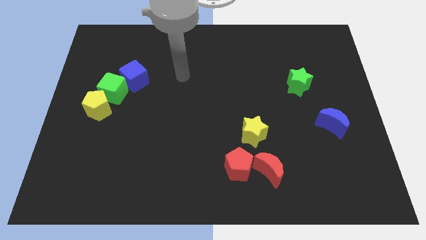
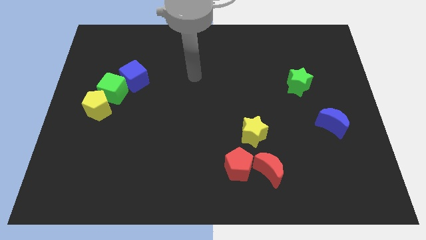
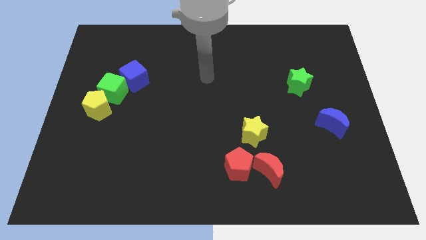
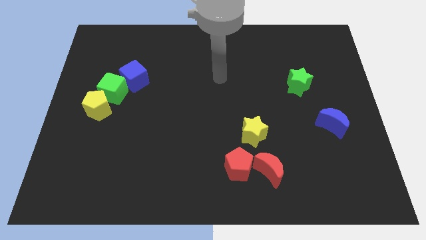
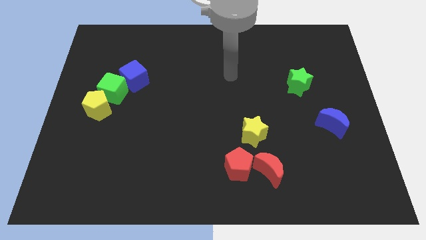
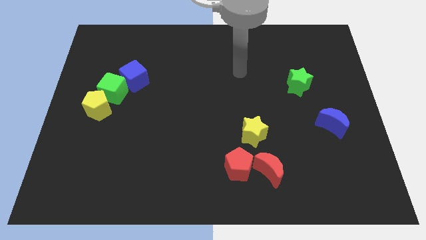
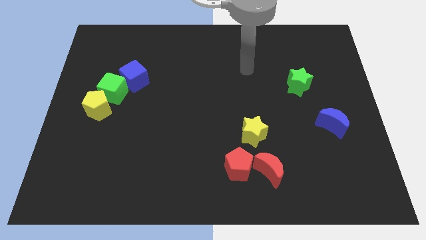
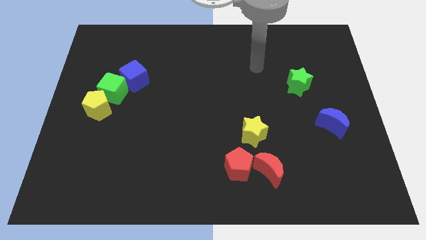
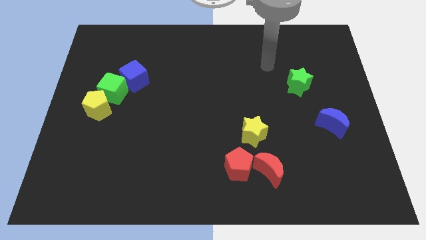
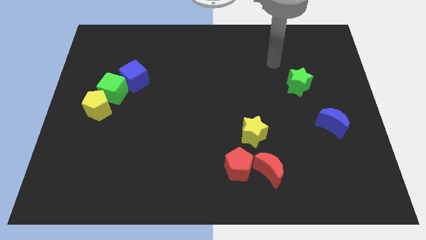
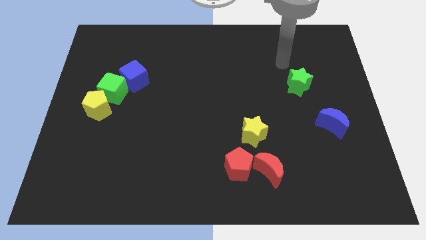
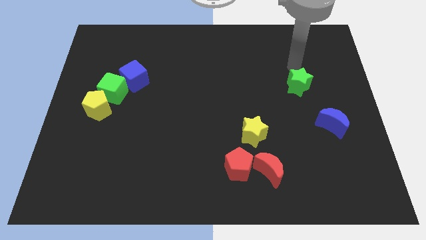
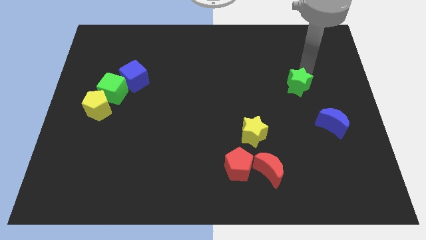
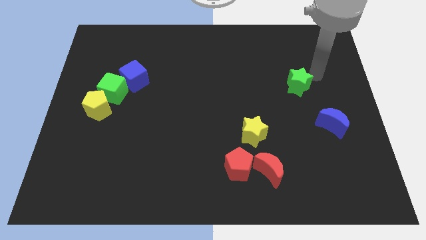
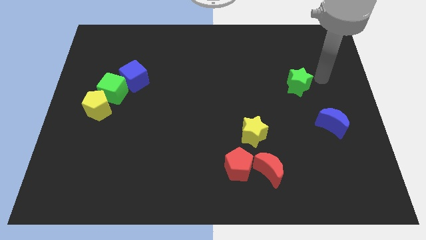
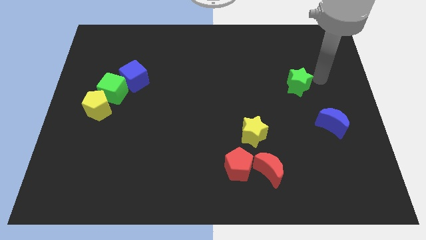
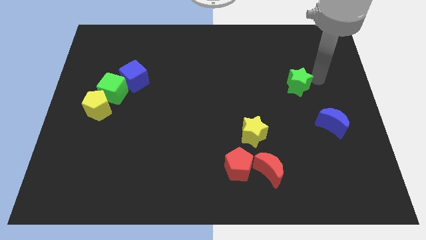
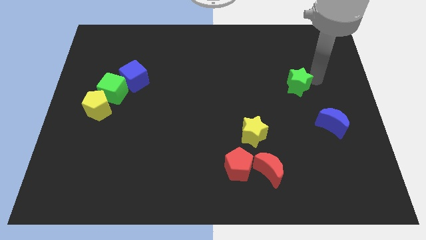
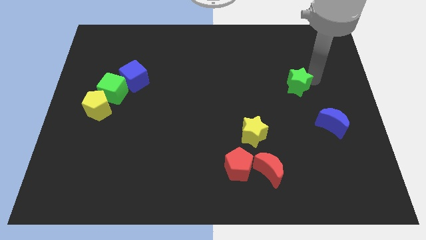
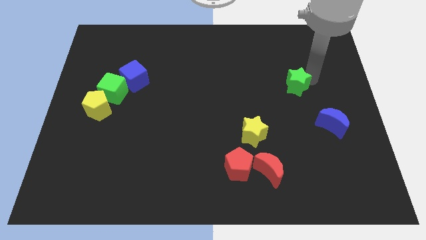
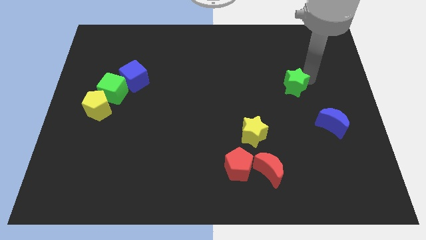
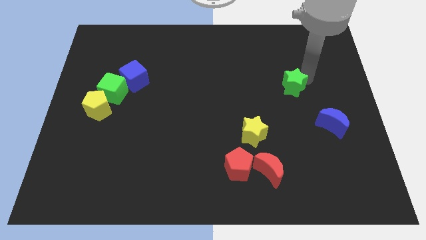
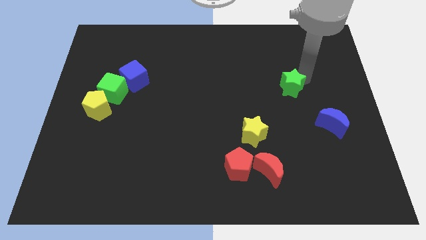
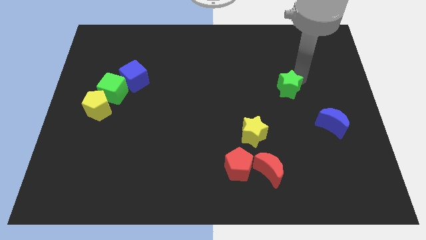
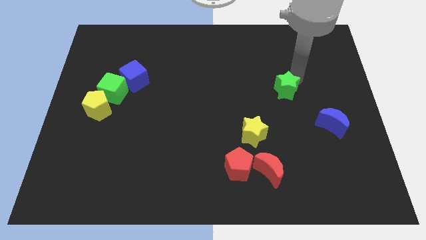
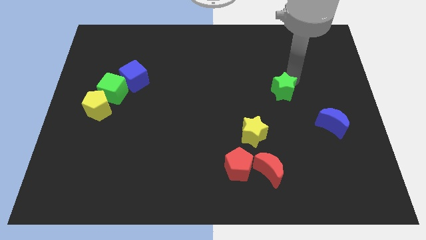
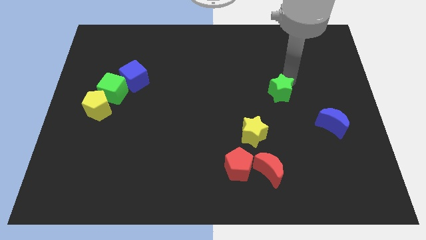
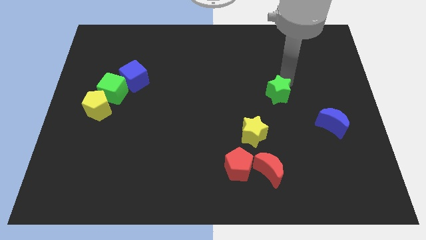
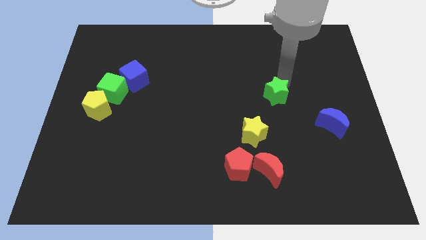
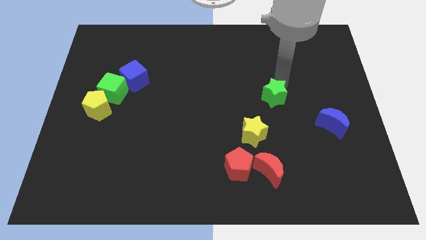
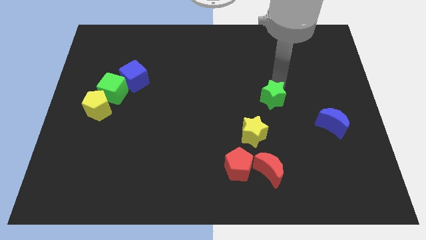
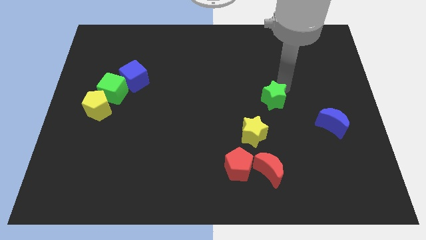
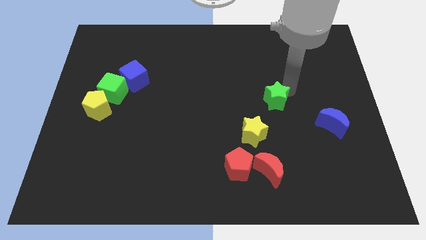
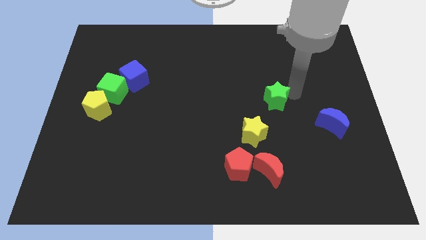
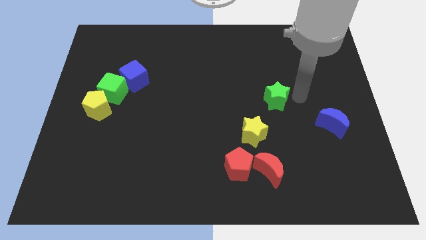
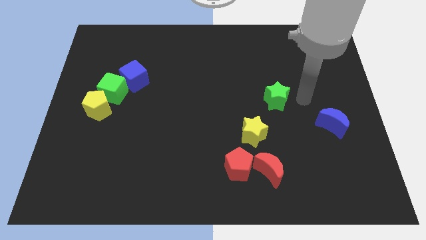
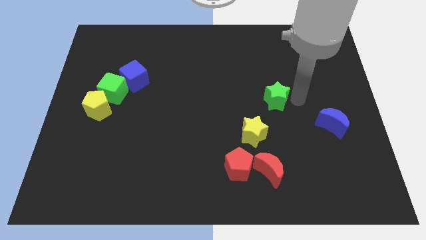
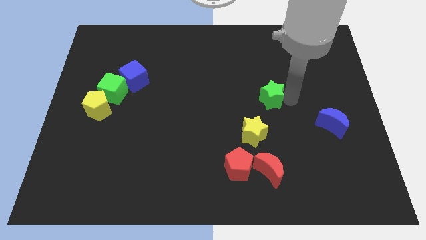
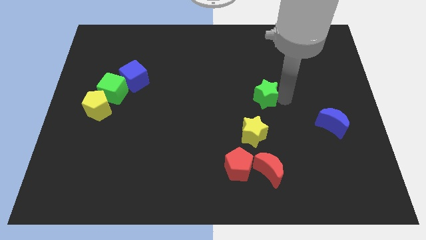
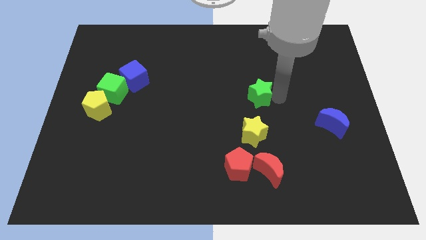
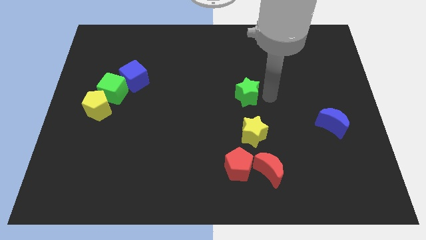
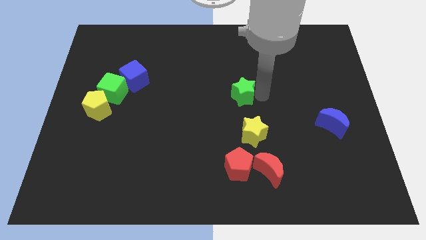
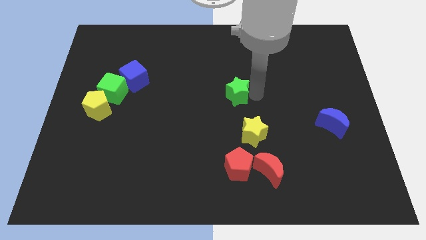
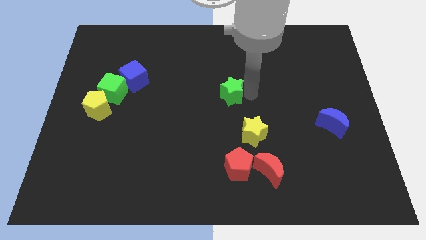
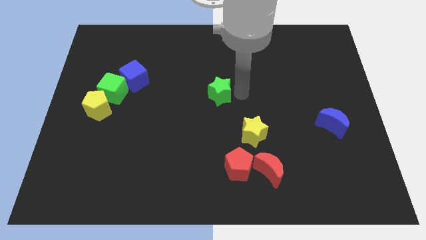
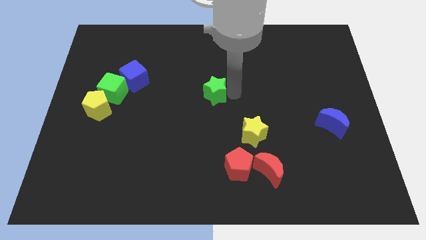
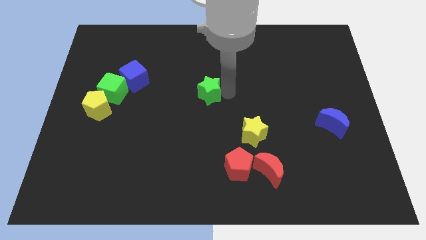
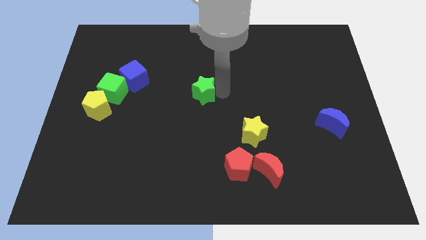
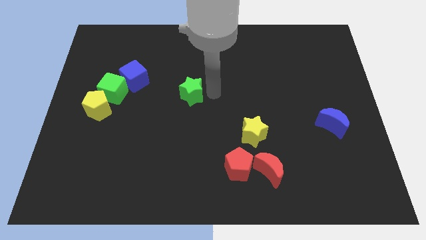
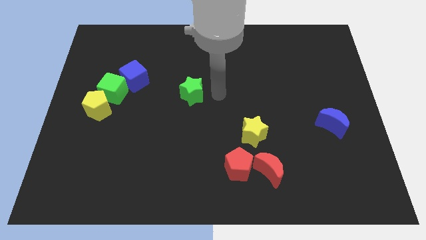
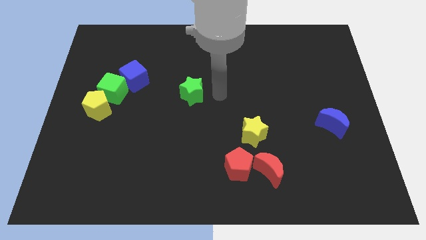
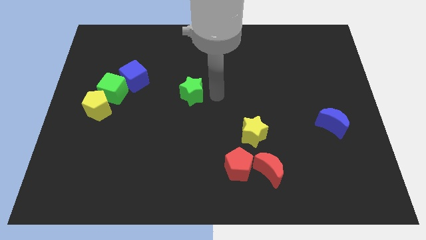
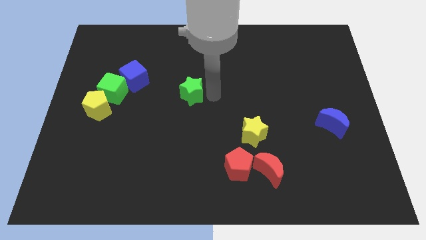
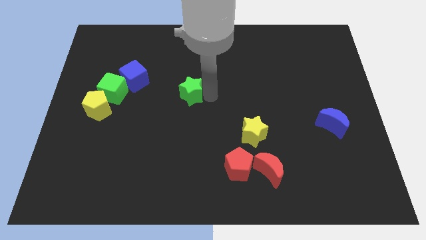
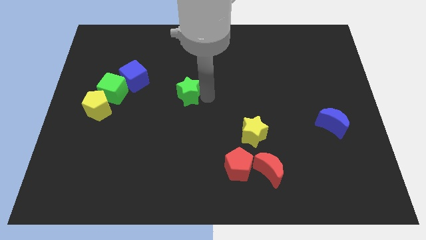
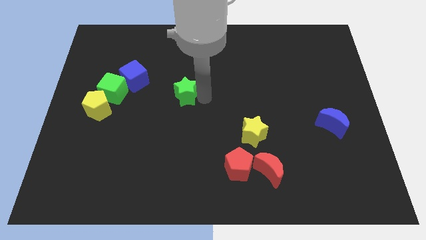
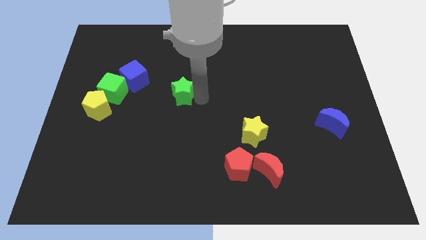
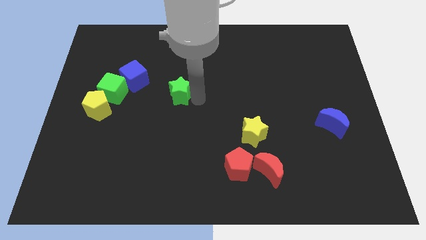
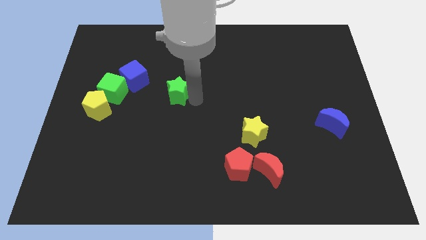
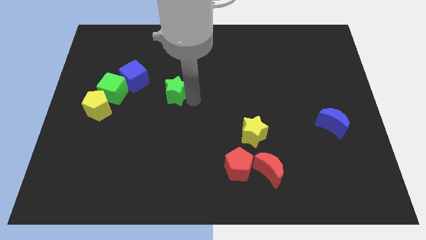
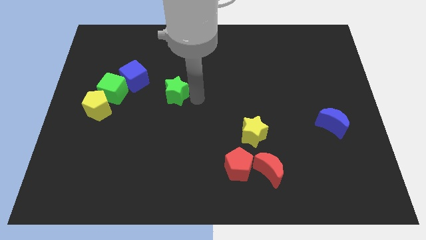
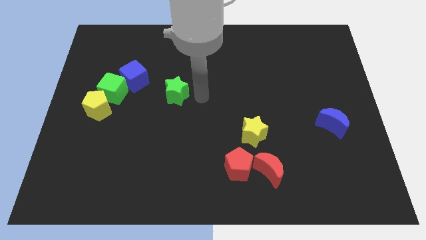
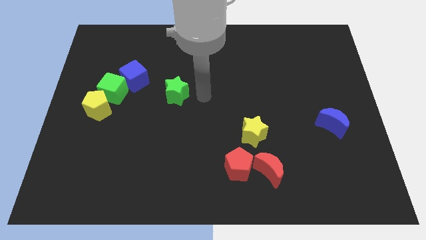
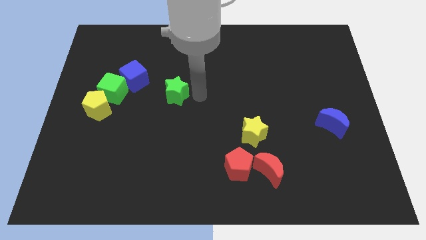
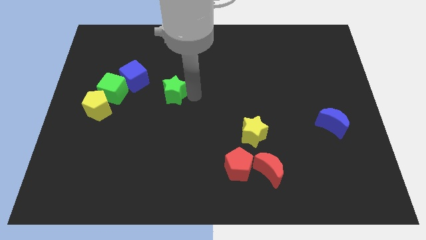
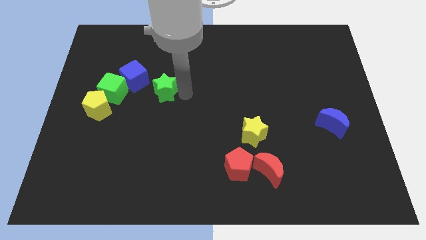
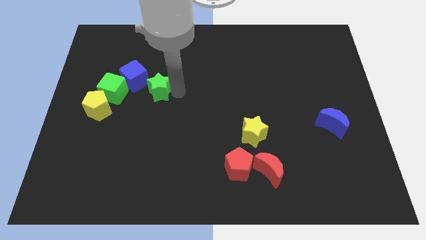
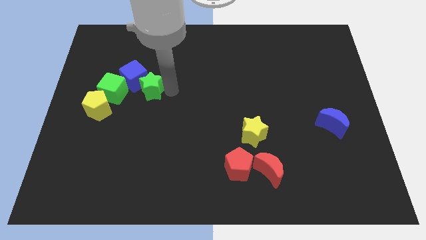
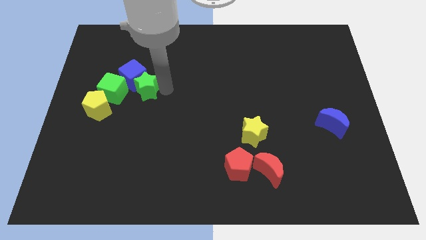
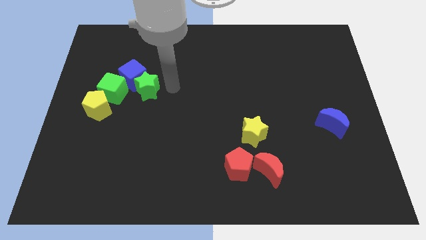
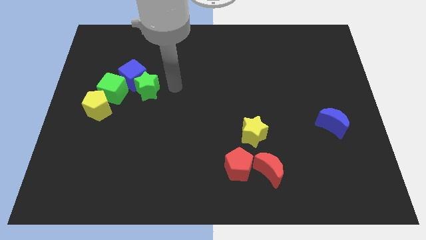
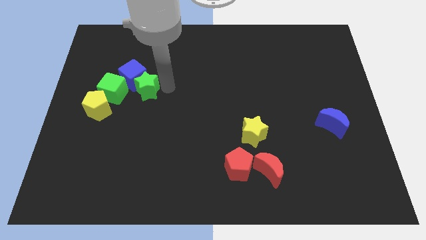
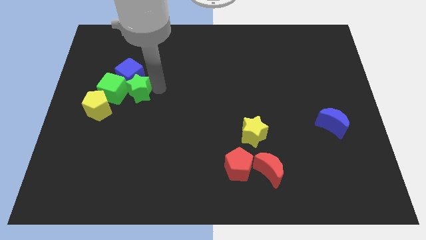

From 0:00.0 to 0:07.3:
put the green star next to the green cube

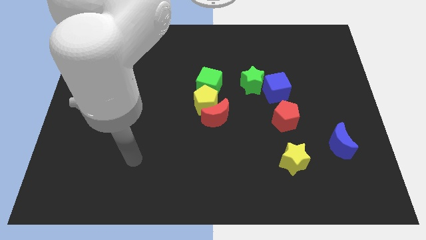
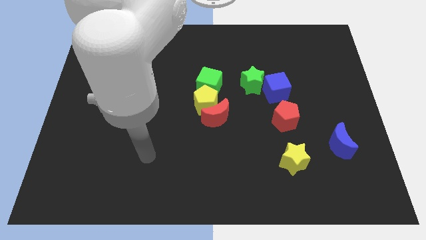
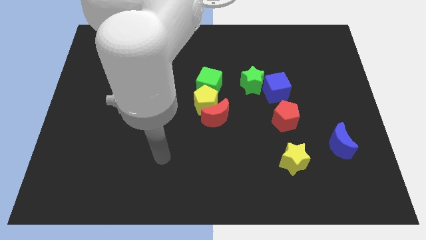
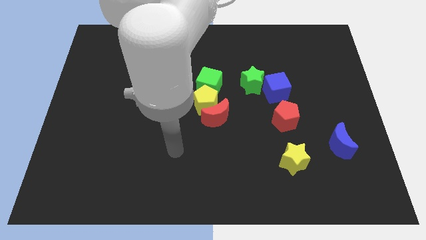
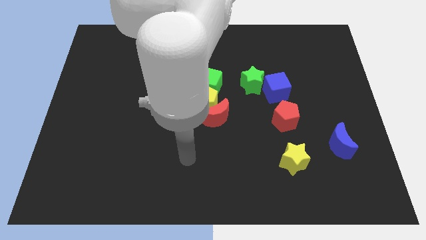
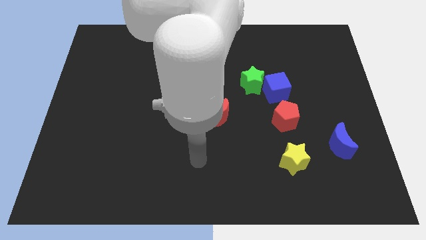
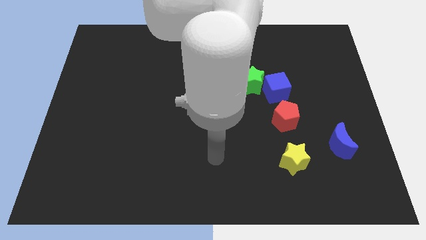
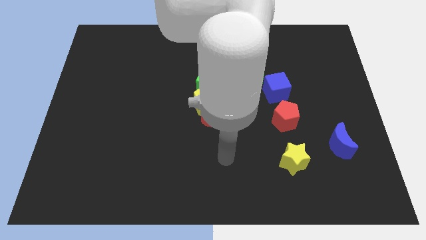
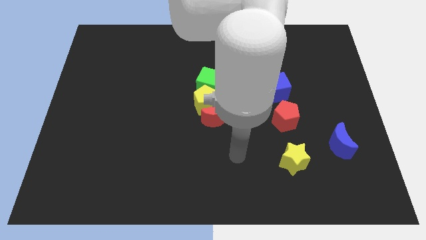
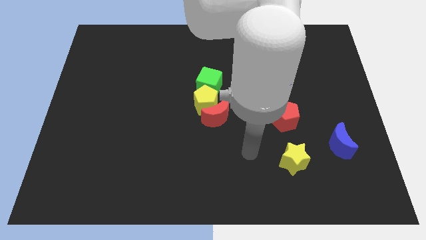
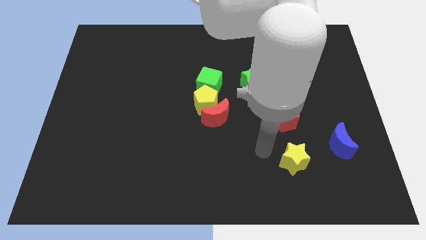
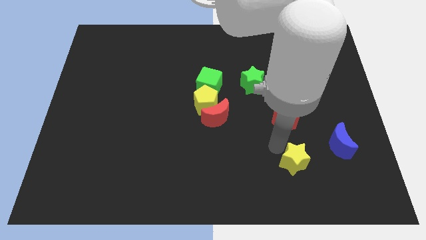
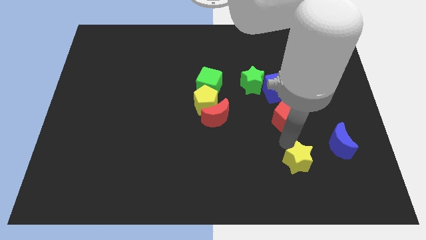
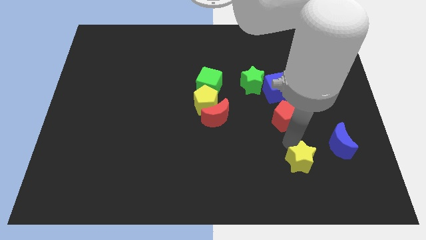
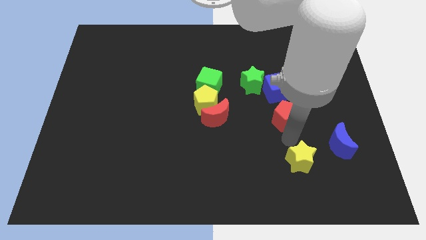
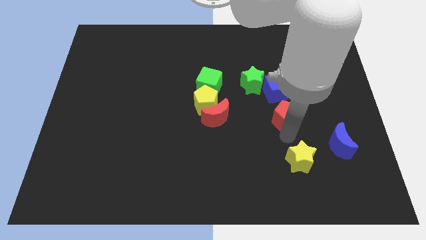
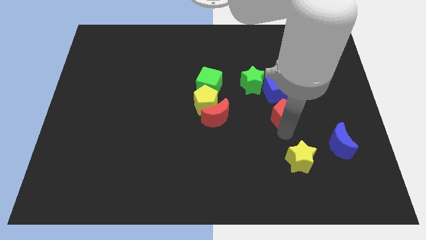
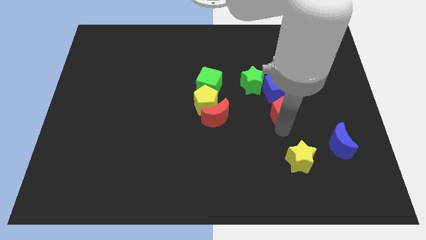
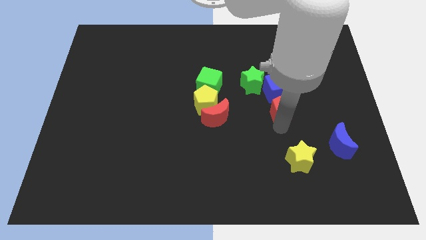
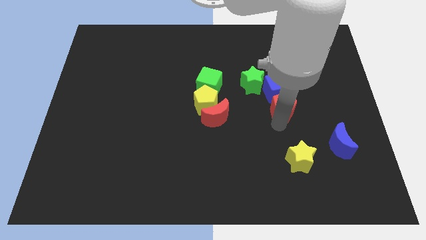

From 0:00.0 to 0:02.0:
move the red pentagon to the blue cube
